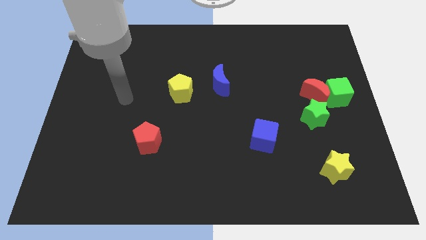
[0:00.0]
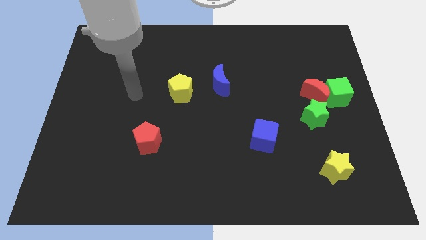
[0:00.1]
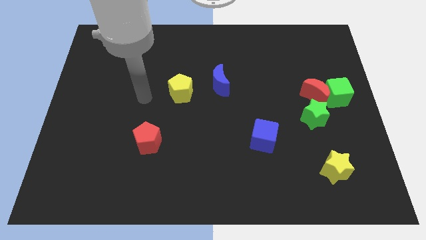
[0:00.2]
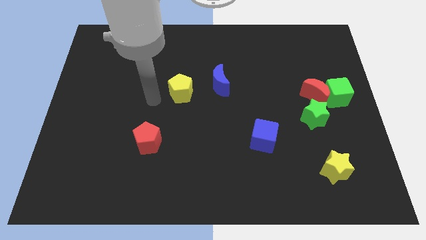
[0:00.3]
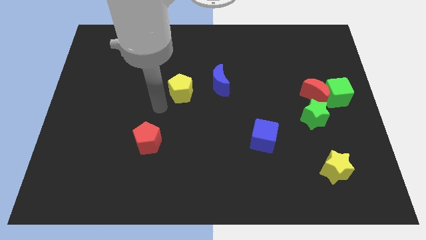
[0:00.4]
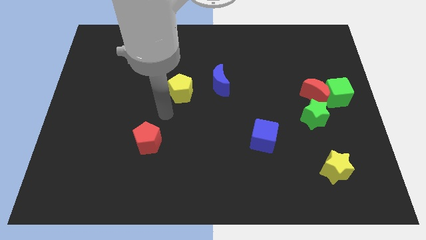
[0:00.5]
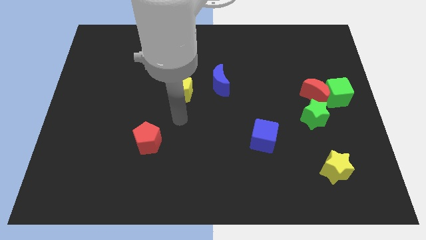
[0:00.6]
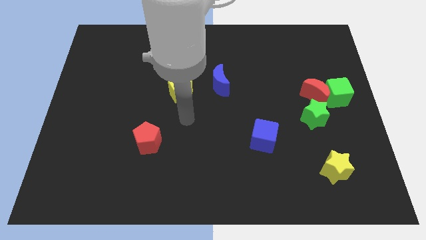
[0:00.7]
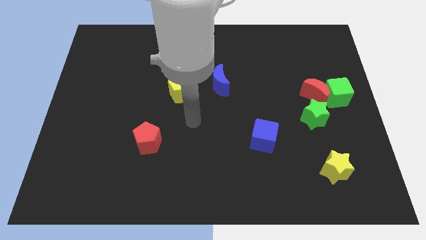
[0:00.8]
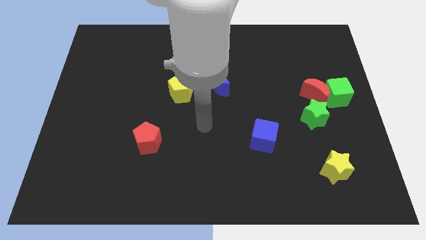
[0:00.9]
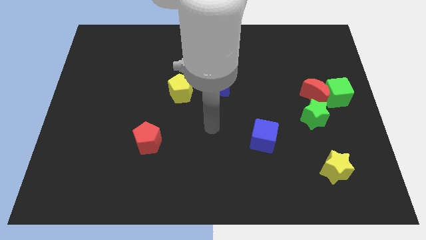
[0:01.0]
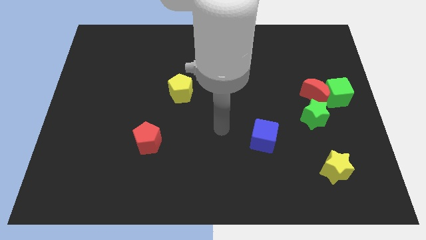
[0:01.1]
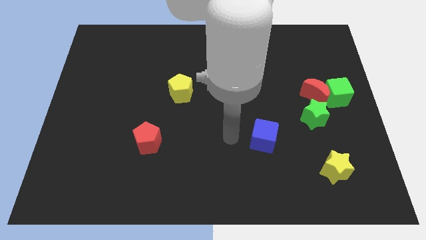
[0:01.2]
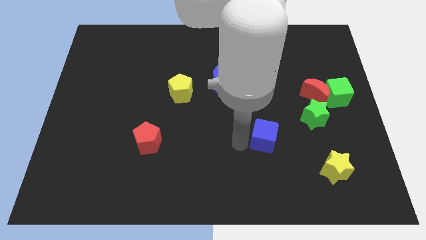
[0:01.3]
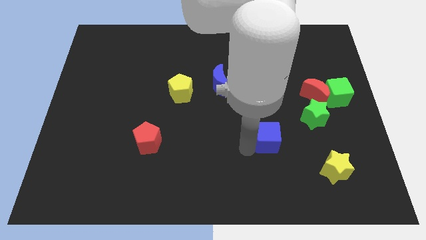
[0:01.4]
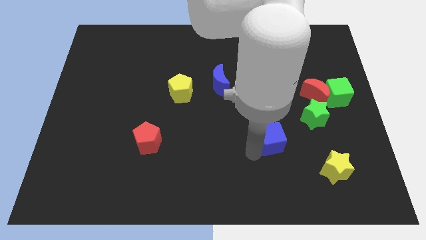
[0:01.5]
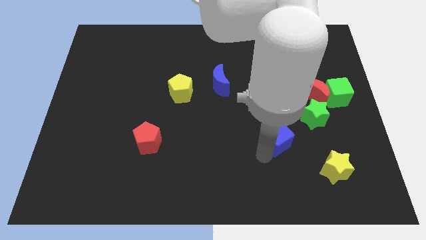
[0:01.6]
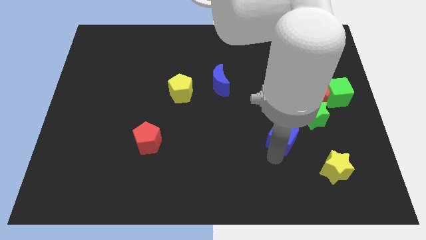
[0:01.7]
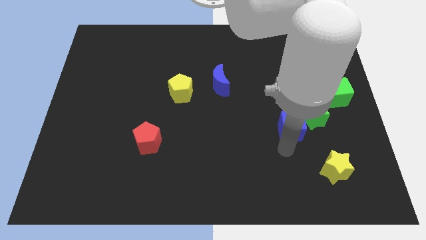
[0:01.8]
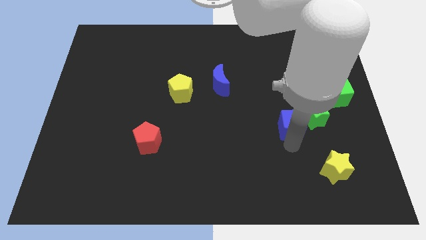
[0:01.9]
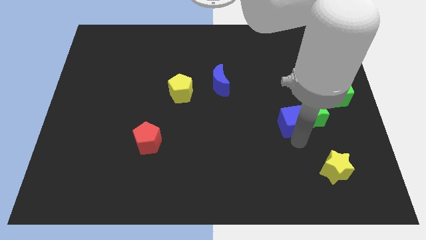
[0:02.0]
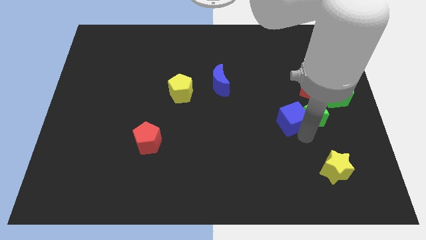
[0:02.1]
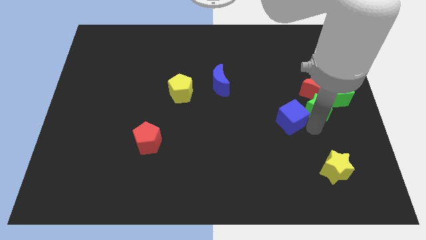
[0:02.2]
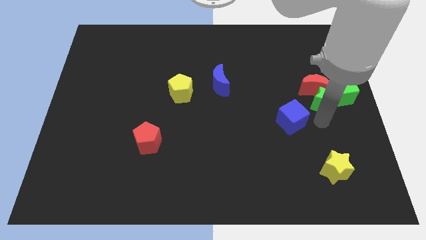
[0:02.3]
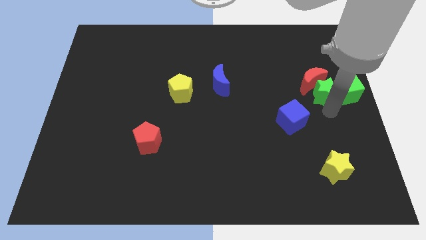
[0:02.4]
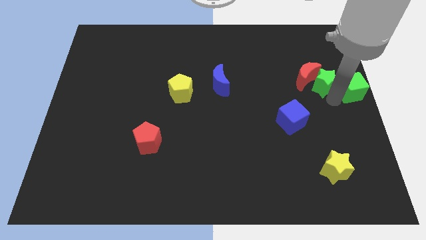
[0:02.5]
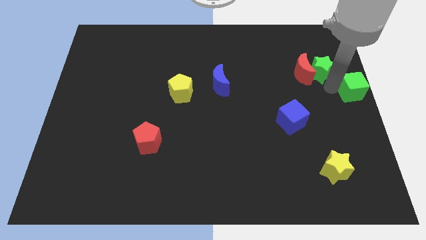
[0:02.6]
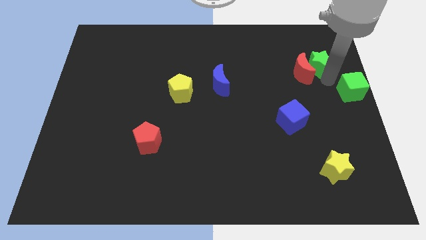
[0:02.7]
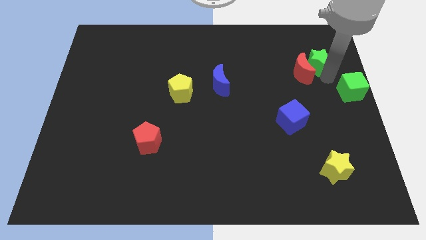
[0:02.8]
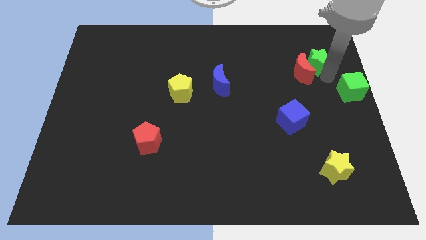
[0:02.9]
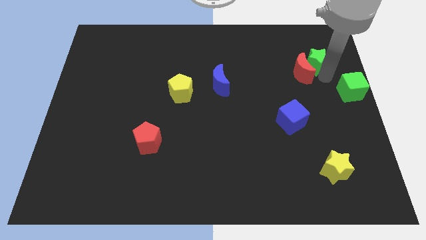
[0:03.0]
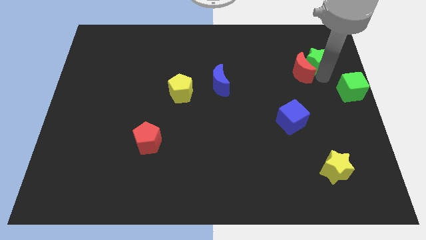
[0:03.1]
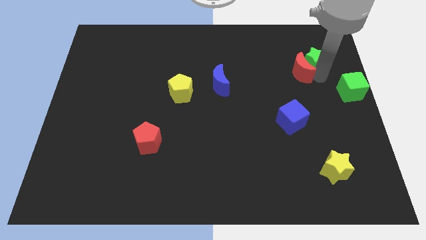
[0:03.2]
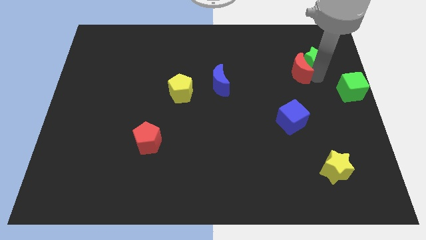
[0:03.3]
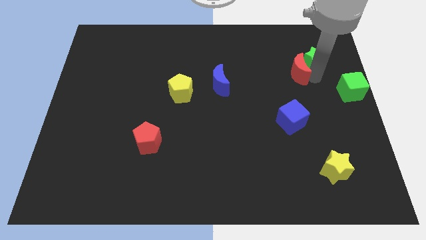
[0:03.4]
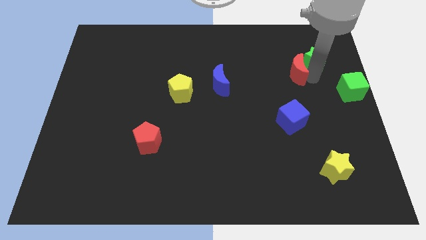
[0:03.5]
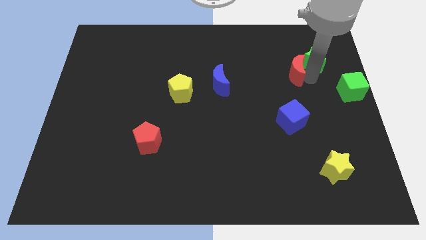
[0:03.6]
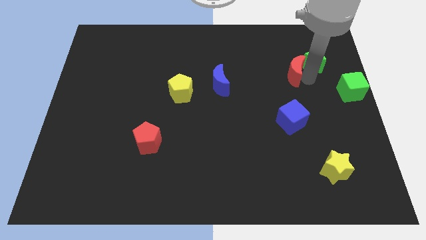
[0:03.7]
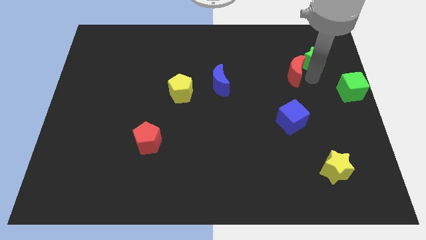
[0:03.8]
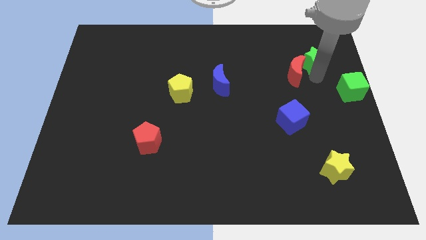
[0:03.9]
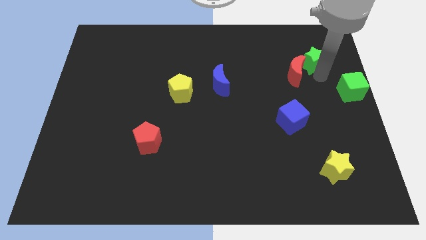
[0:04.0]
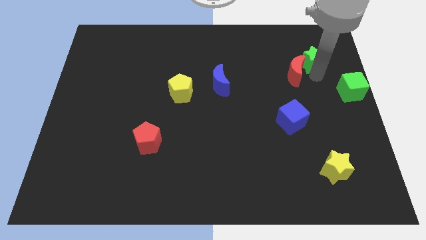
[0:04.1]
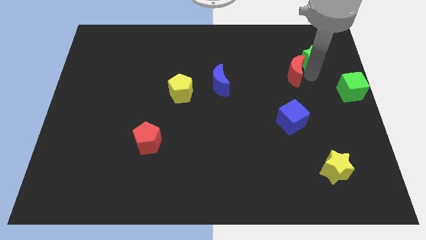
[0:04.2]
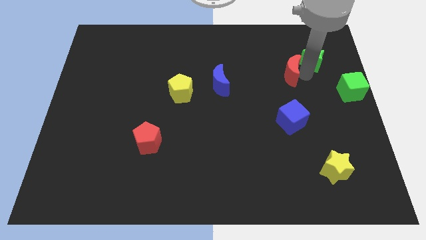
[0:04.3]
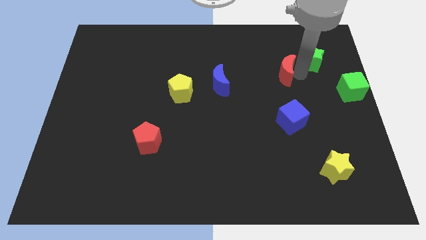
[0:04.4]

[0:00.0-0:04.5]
pull the red moon apart from the green cube and green star

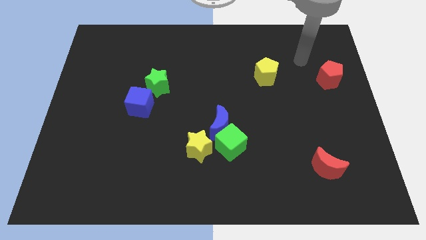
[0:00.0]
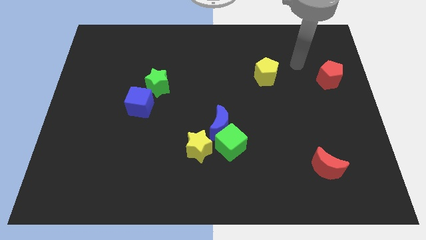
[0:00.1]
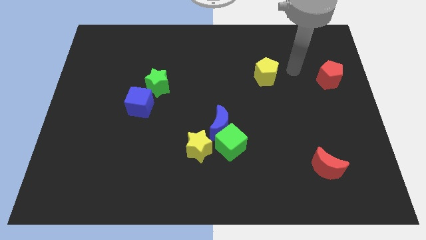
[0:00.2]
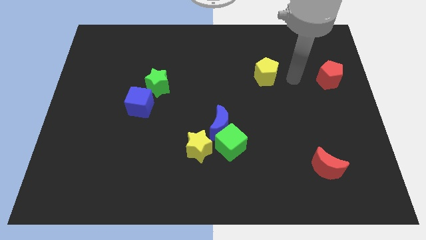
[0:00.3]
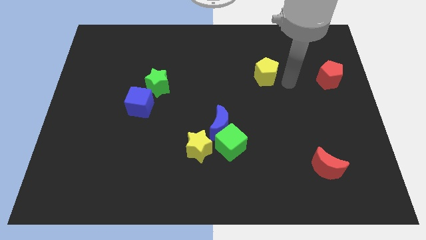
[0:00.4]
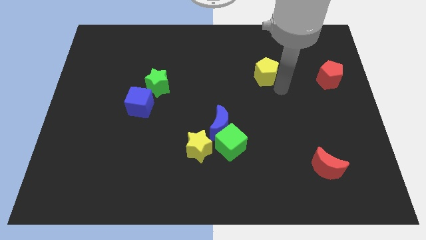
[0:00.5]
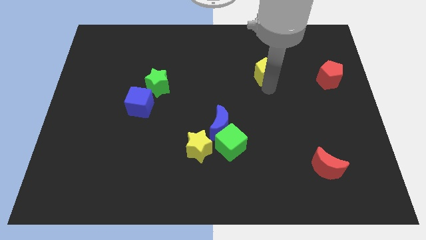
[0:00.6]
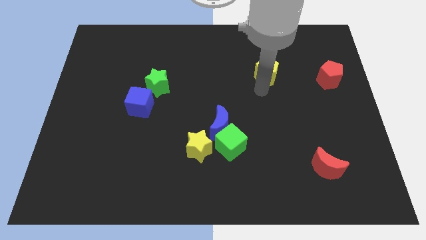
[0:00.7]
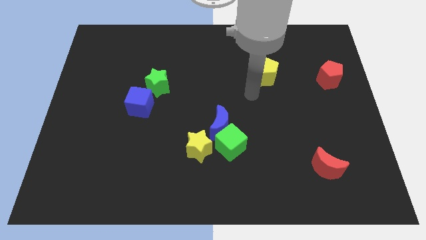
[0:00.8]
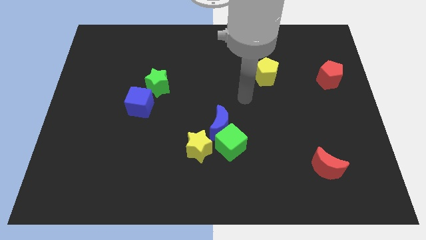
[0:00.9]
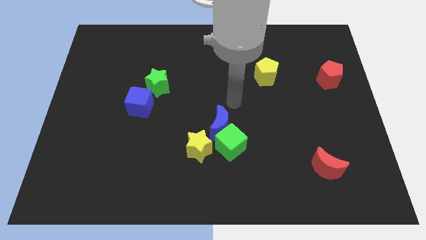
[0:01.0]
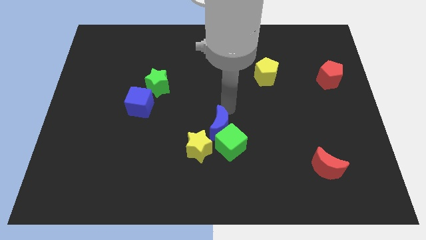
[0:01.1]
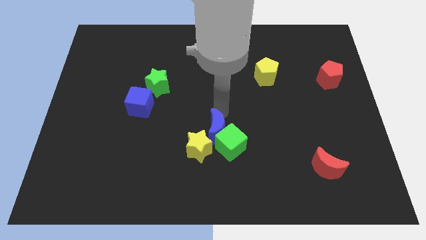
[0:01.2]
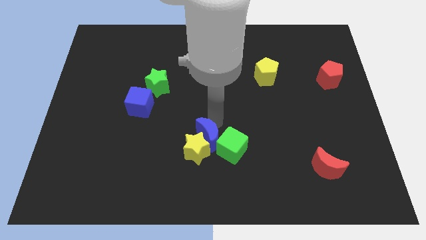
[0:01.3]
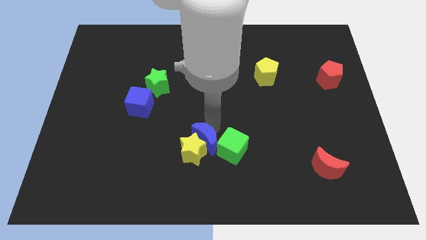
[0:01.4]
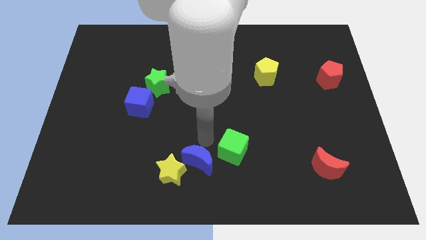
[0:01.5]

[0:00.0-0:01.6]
separate the green cube from the blue moon and yellow star

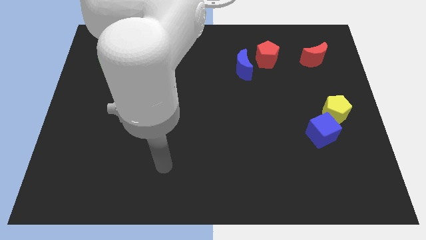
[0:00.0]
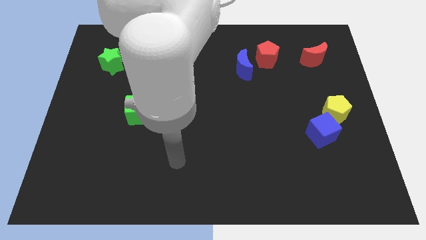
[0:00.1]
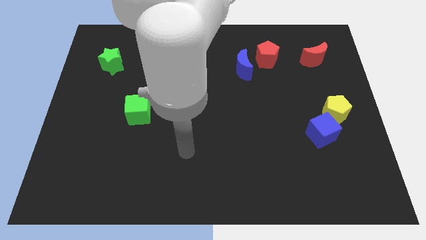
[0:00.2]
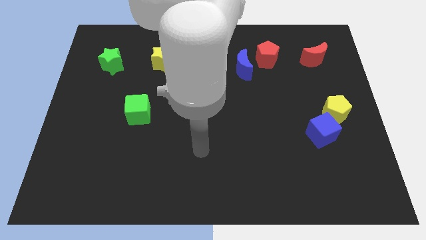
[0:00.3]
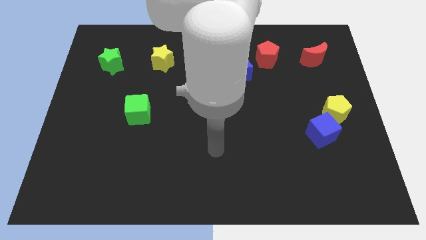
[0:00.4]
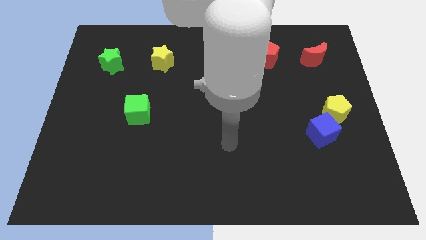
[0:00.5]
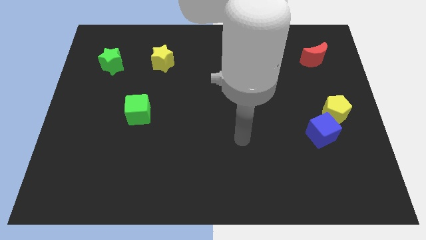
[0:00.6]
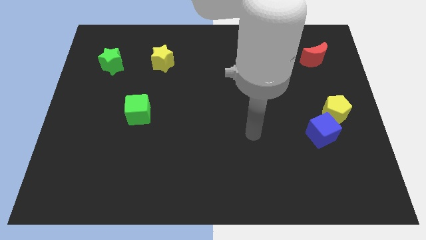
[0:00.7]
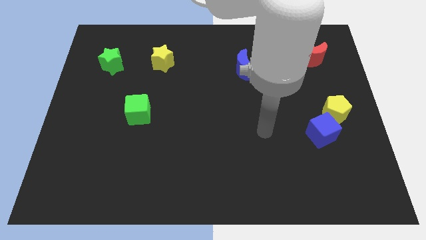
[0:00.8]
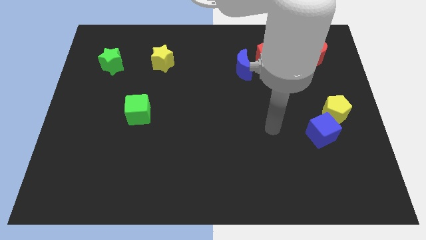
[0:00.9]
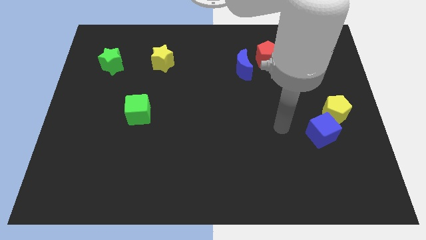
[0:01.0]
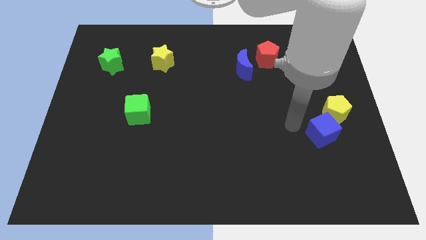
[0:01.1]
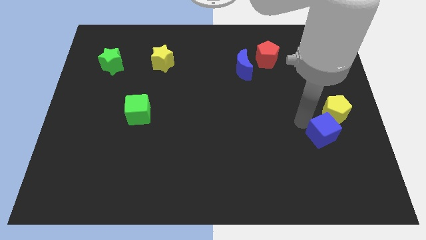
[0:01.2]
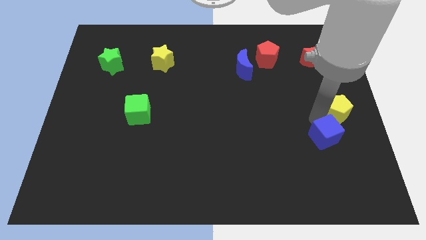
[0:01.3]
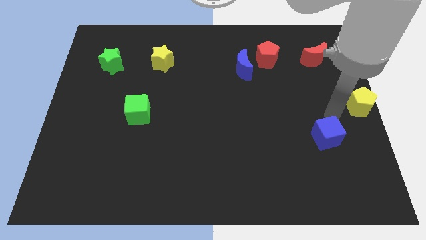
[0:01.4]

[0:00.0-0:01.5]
separate the blue cube from the yellow pentagon

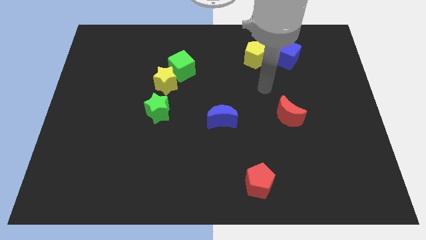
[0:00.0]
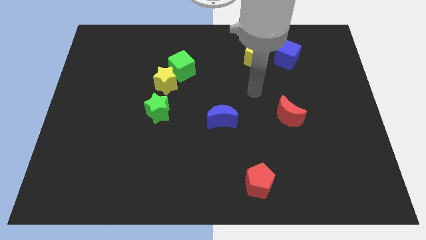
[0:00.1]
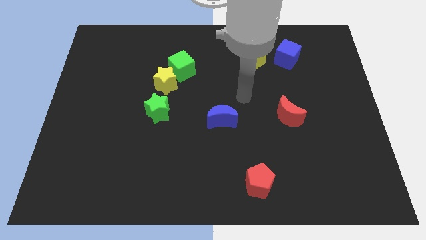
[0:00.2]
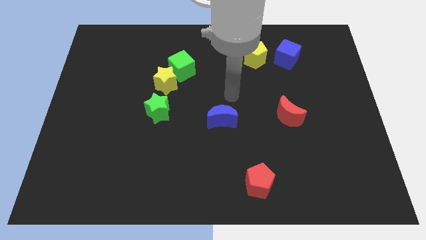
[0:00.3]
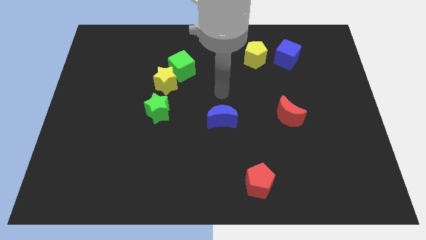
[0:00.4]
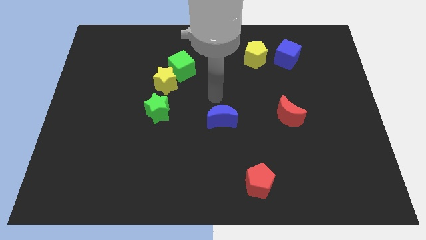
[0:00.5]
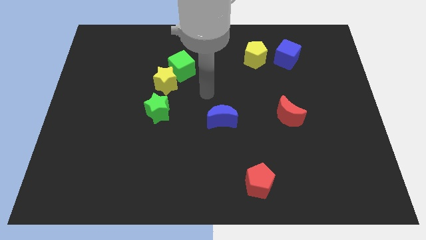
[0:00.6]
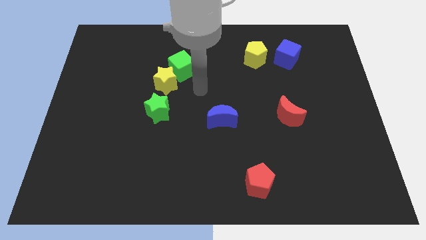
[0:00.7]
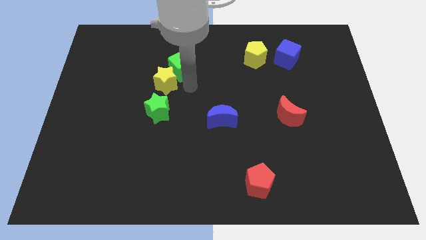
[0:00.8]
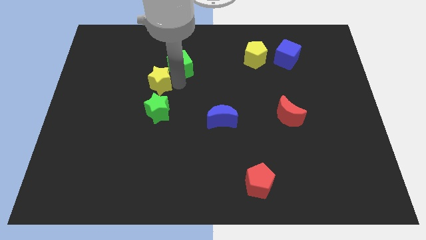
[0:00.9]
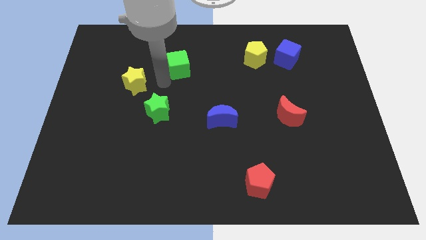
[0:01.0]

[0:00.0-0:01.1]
separate the green cube from the yellow star

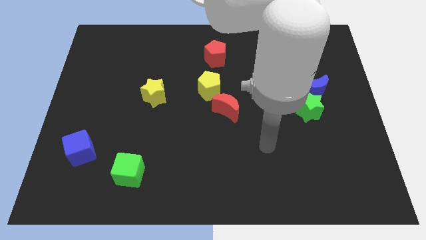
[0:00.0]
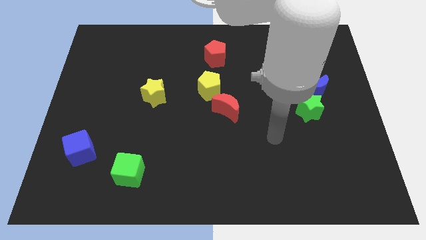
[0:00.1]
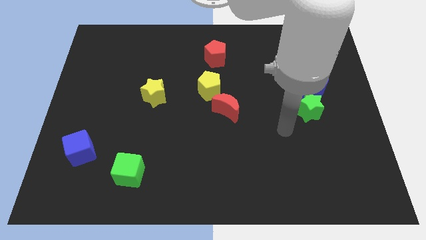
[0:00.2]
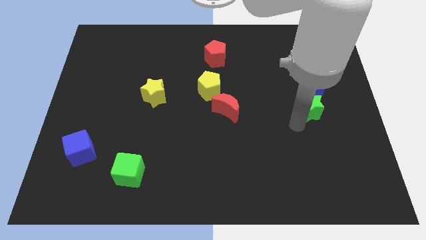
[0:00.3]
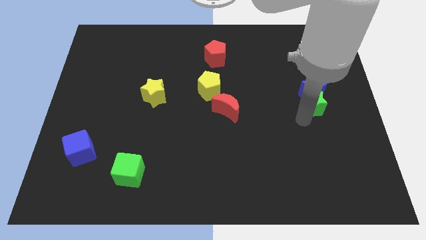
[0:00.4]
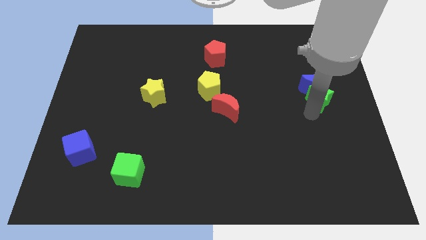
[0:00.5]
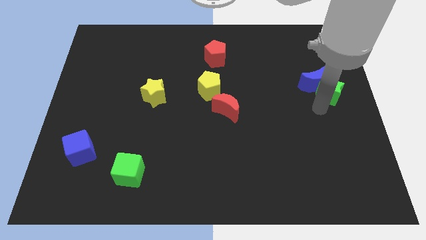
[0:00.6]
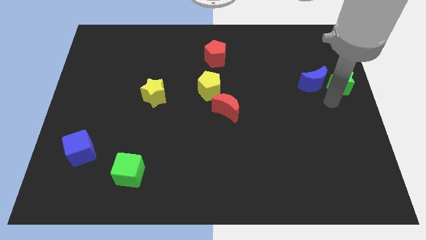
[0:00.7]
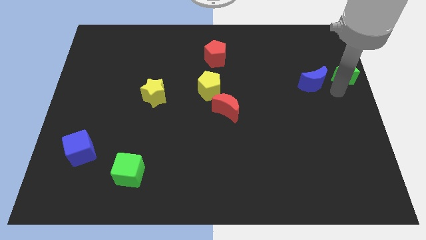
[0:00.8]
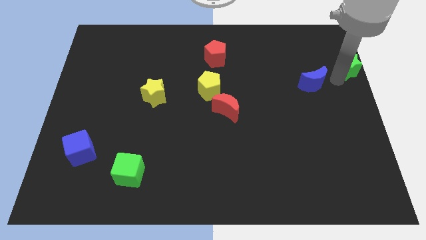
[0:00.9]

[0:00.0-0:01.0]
separate the blue moon from the green star
